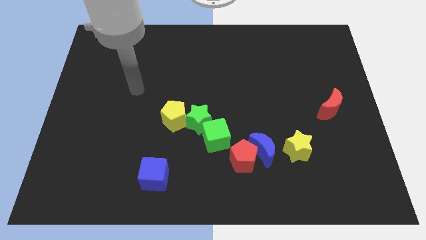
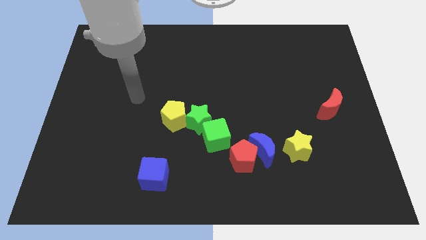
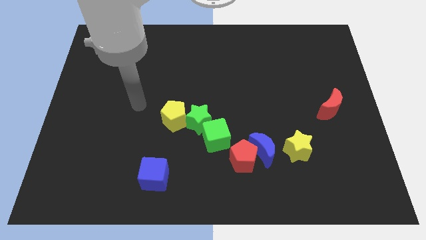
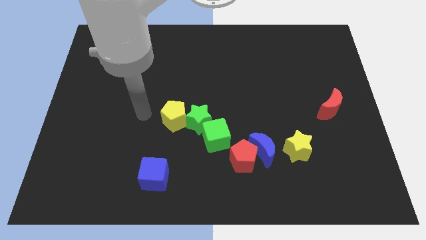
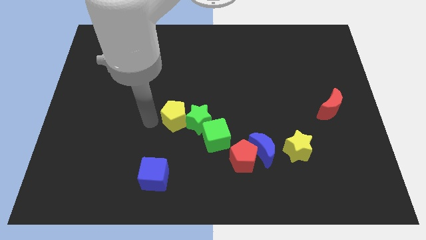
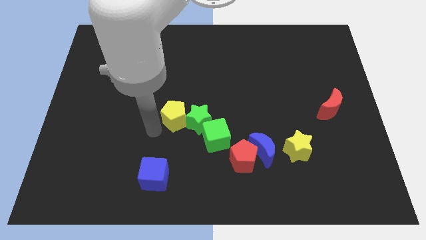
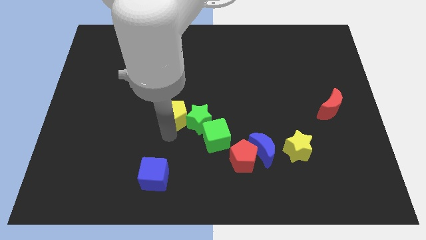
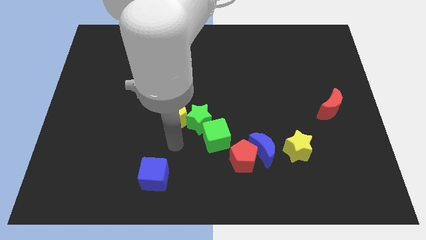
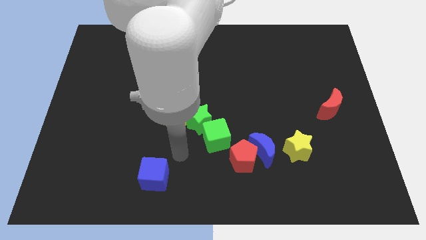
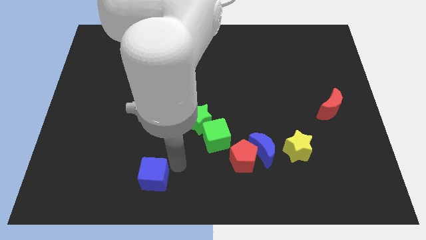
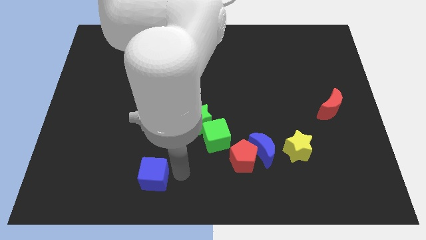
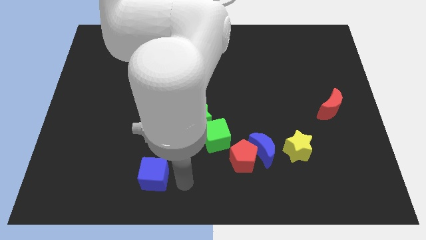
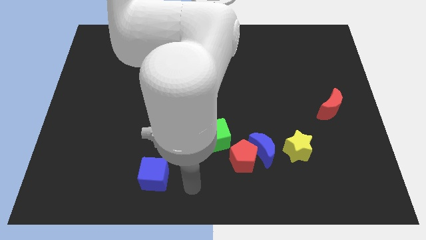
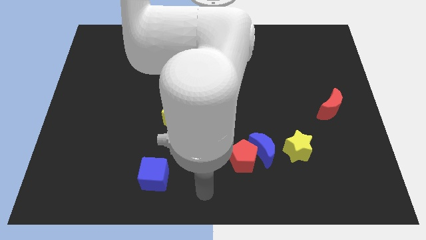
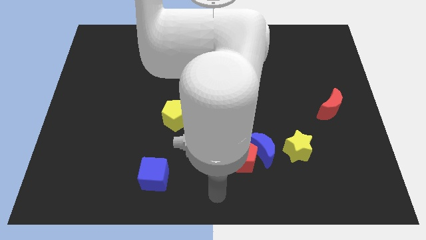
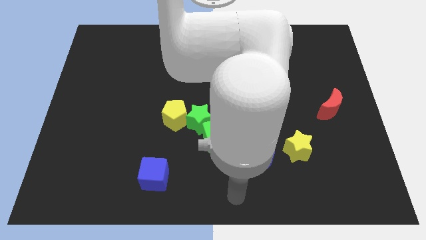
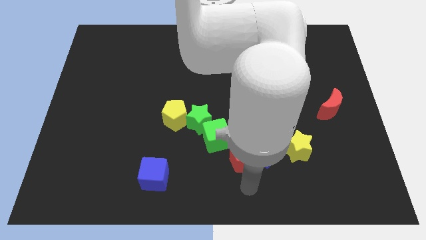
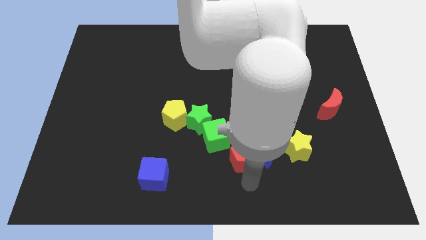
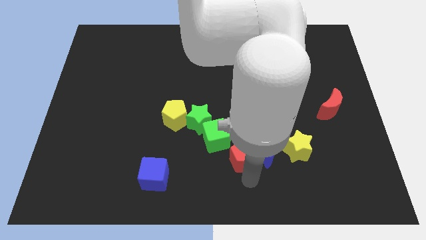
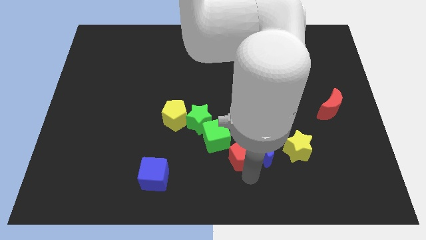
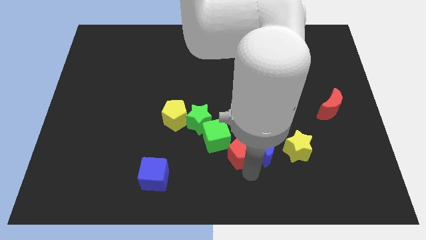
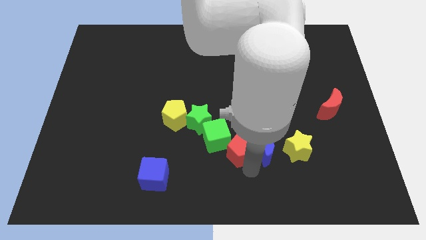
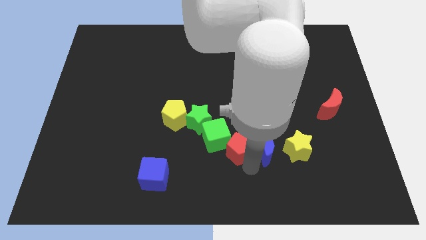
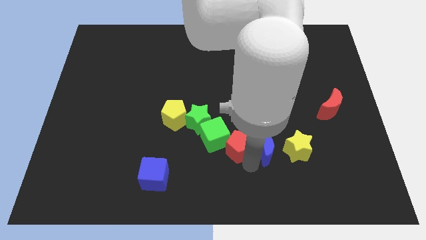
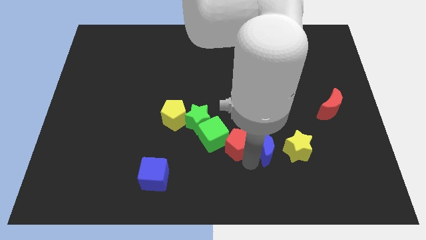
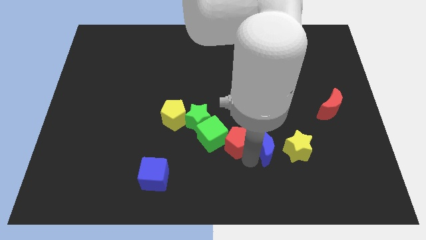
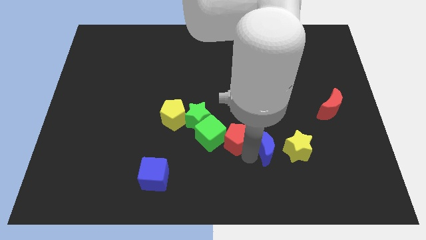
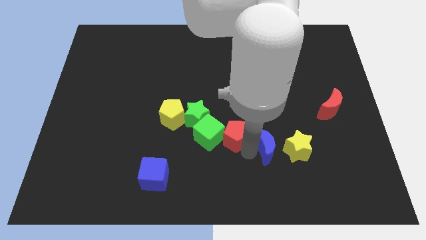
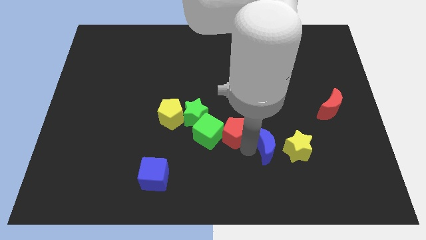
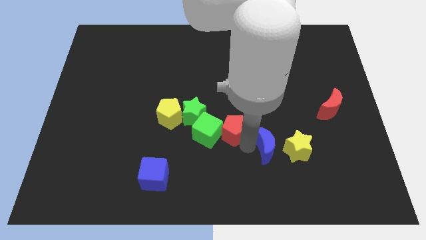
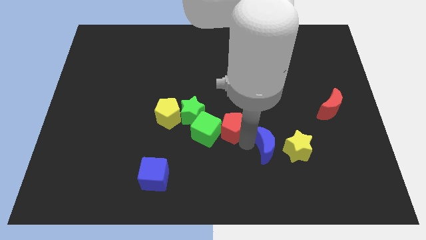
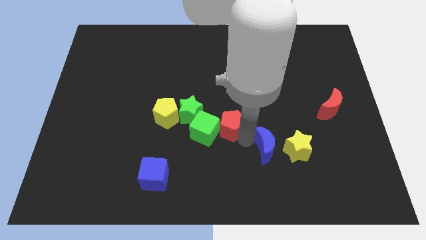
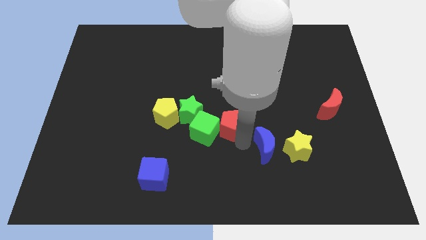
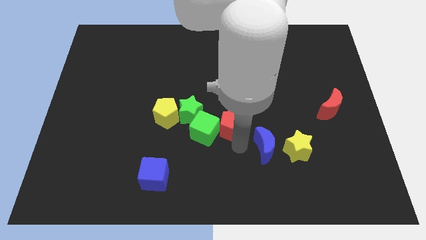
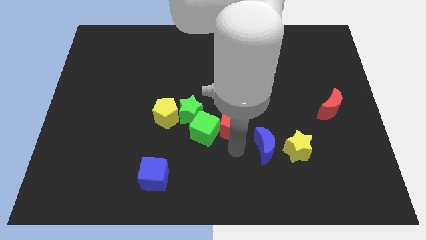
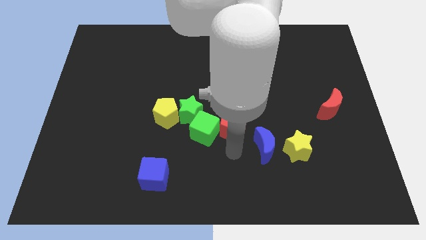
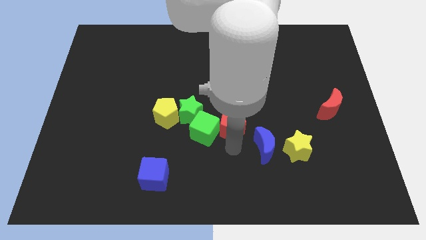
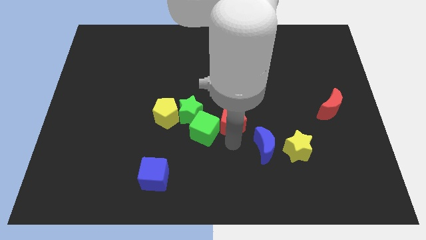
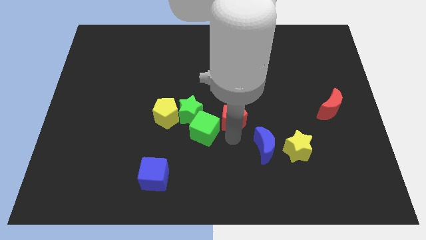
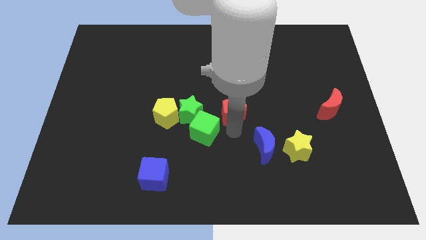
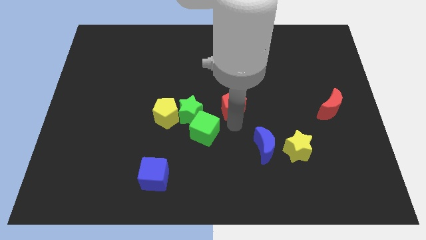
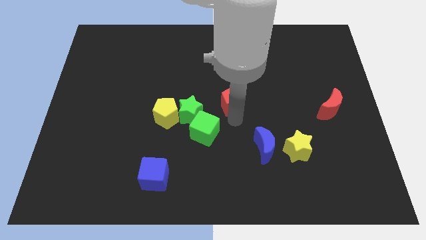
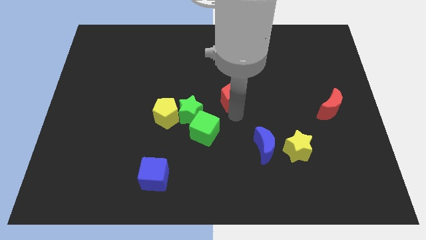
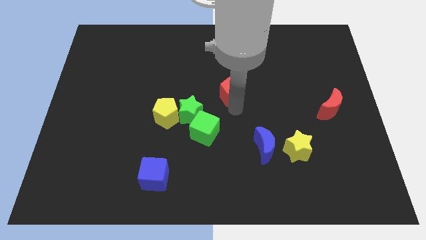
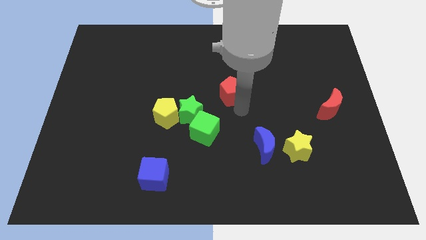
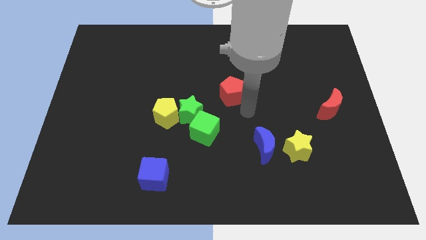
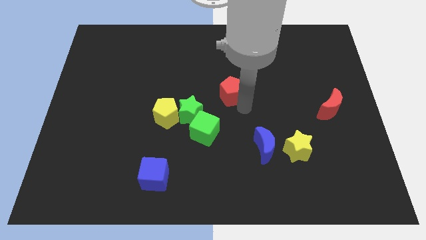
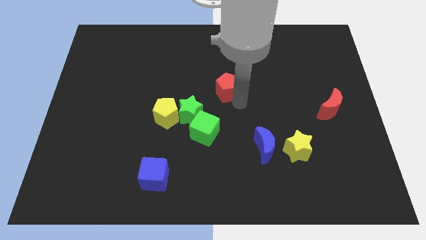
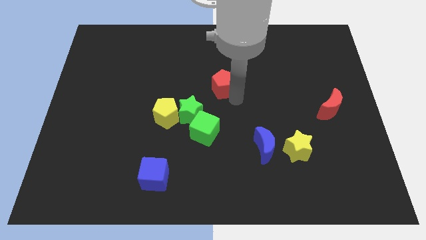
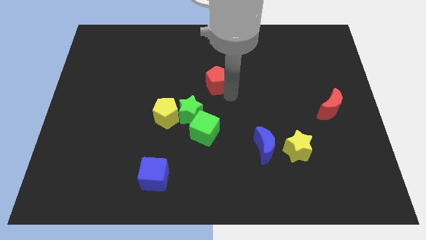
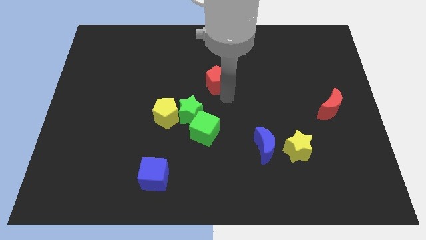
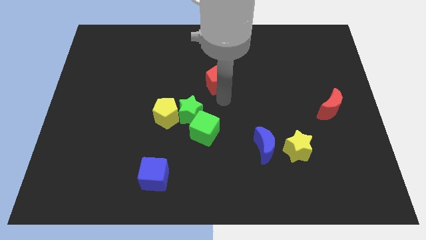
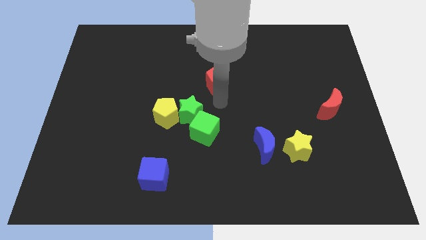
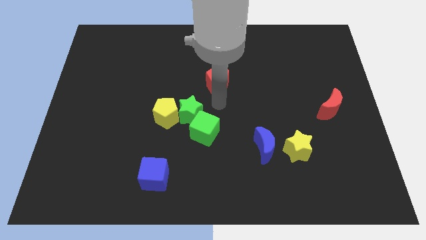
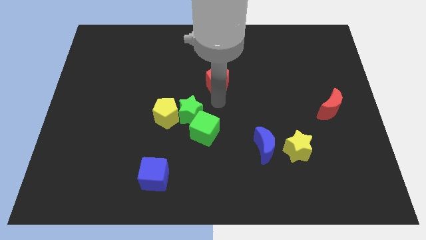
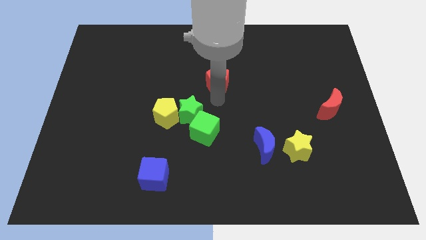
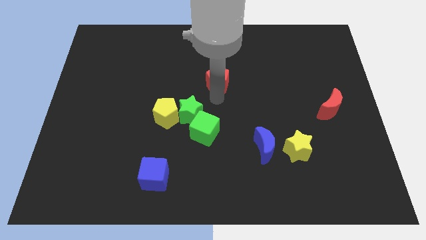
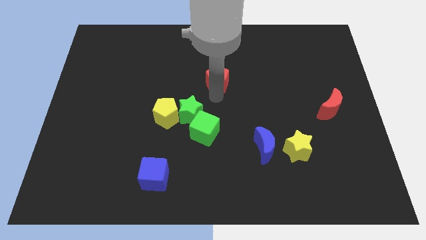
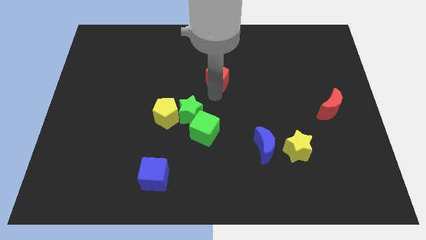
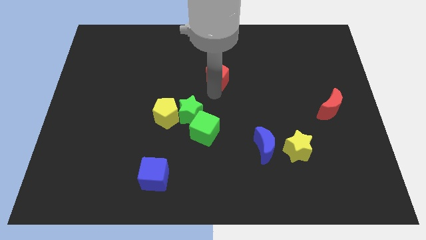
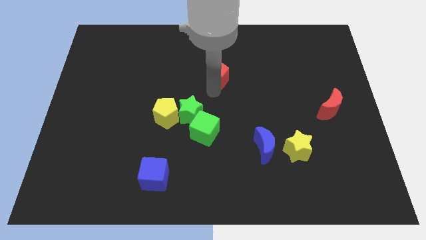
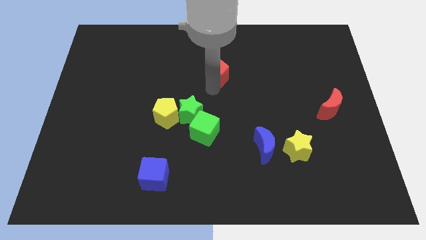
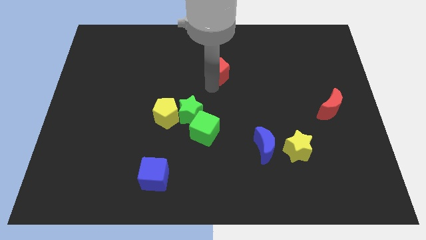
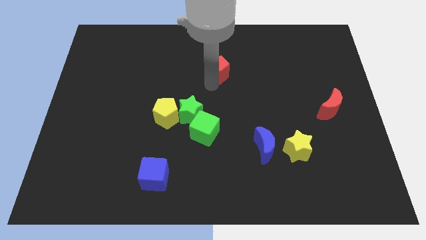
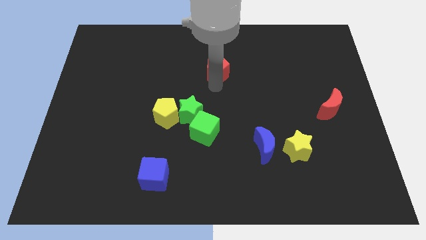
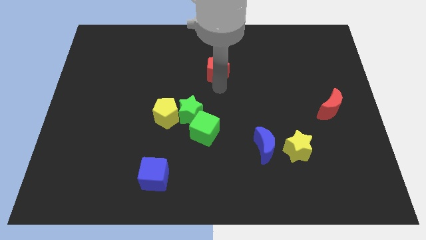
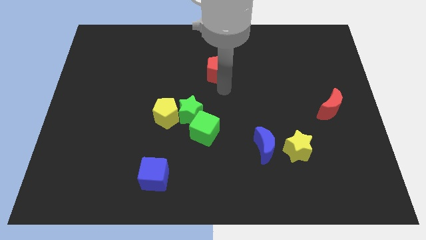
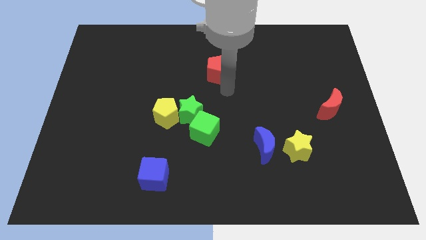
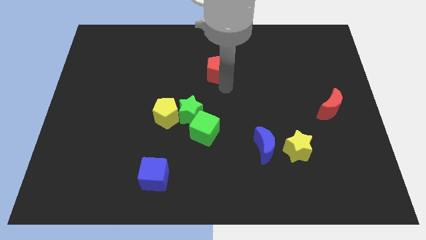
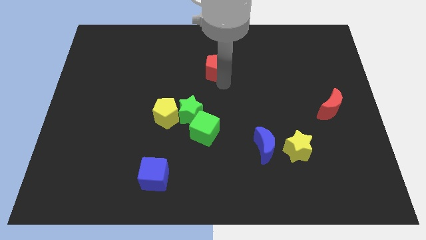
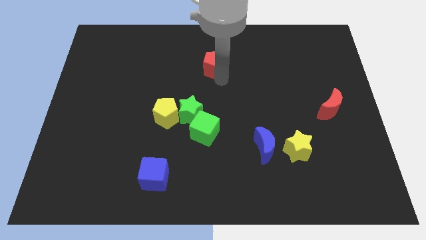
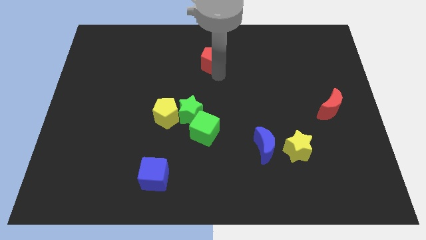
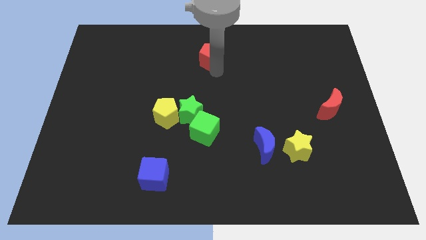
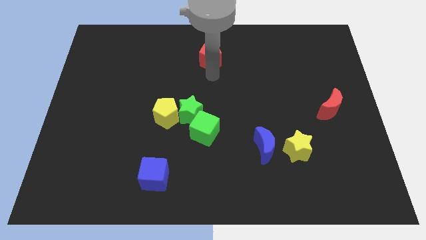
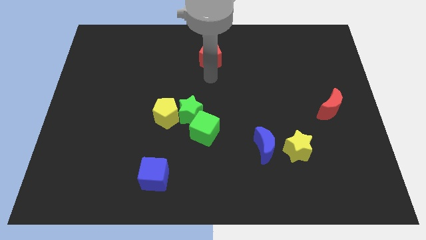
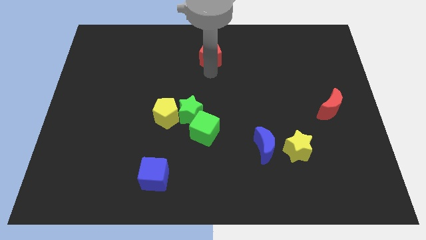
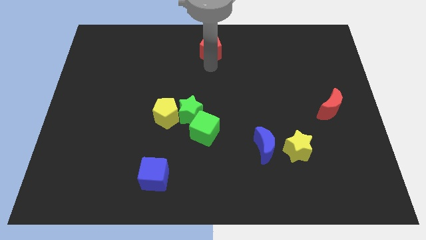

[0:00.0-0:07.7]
push the red pentagon to the top
